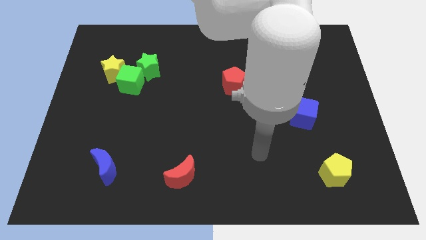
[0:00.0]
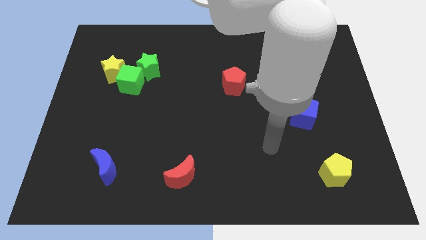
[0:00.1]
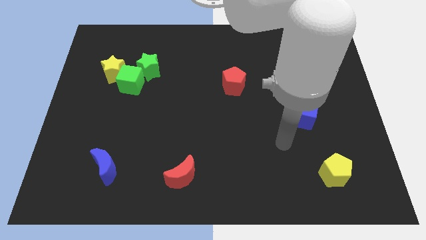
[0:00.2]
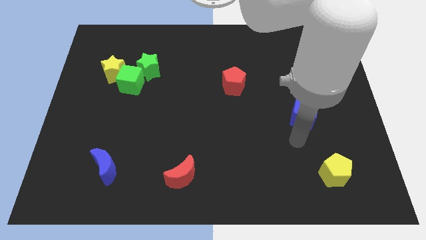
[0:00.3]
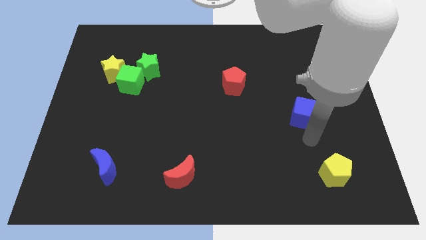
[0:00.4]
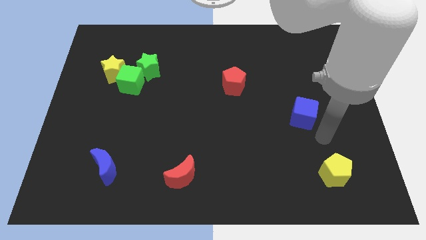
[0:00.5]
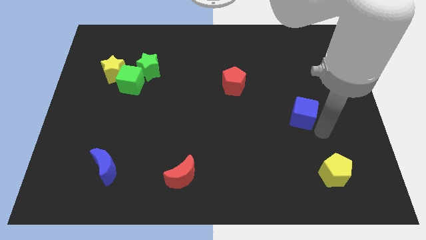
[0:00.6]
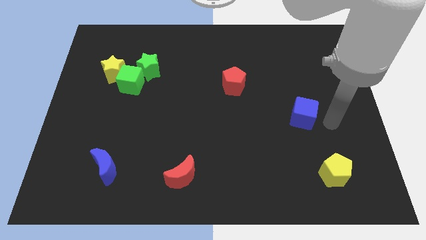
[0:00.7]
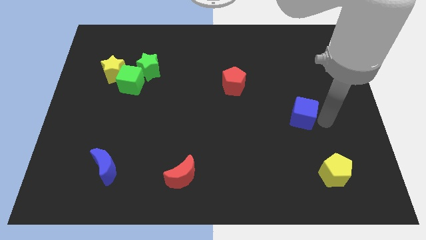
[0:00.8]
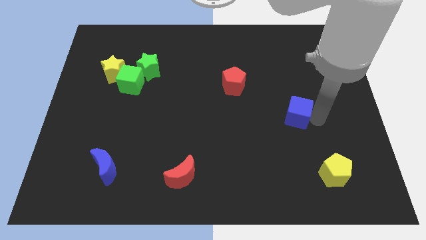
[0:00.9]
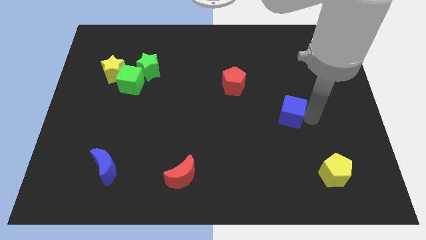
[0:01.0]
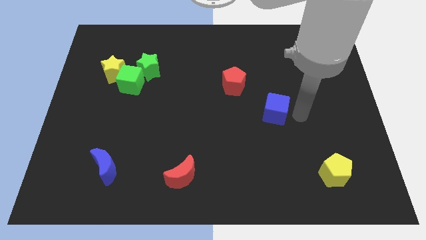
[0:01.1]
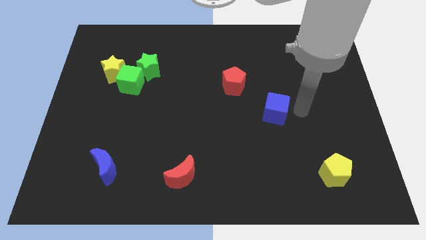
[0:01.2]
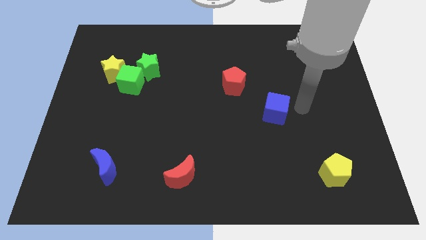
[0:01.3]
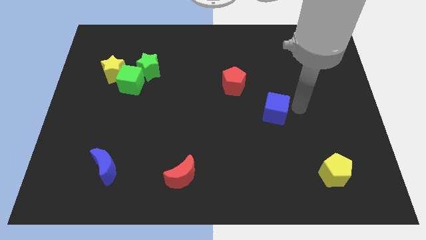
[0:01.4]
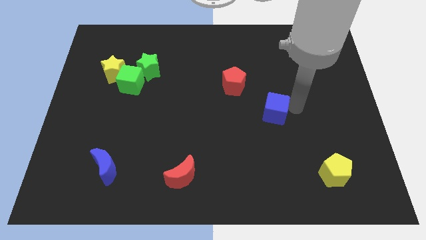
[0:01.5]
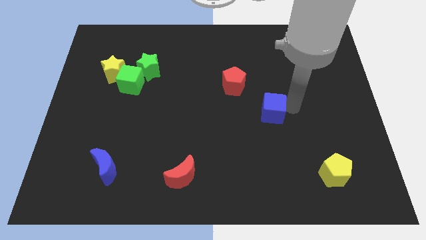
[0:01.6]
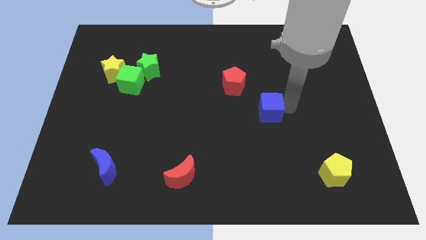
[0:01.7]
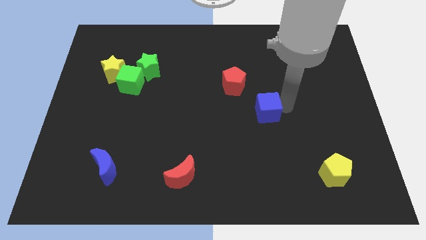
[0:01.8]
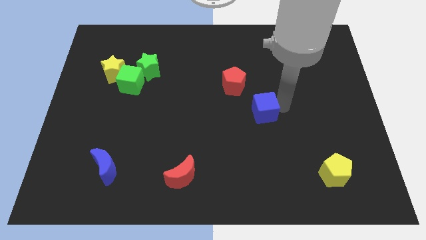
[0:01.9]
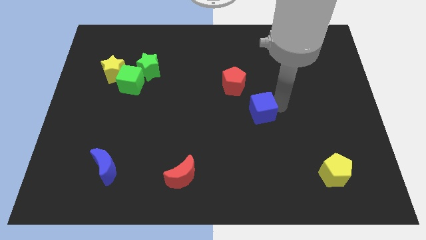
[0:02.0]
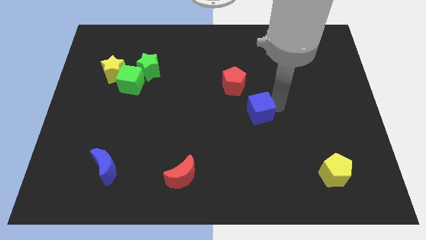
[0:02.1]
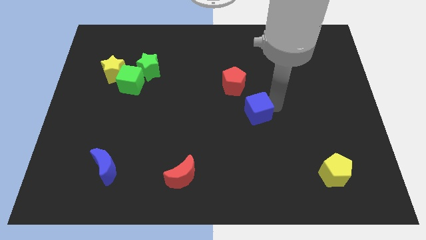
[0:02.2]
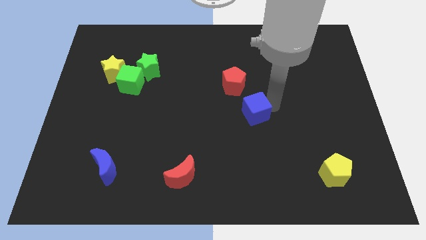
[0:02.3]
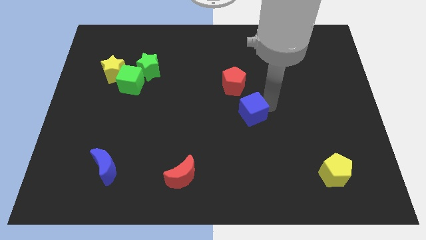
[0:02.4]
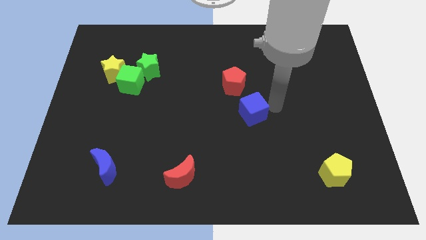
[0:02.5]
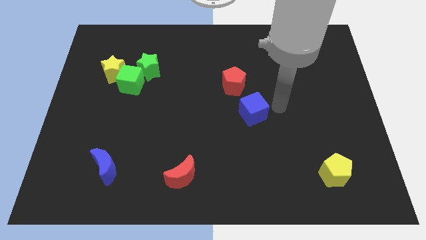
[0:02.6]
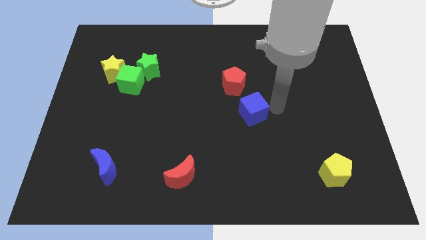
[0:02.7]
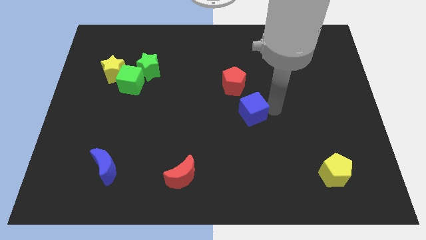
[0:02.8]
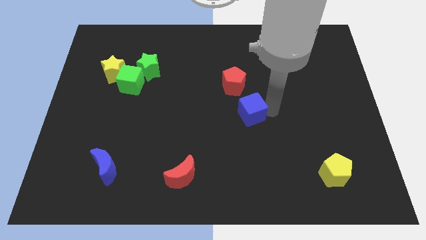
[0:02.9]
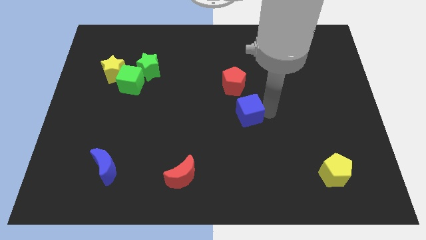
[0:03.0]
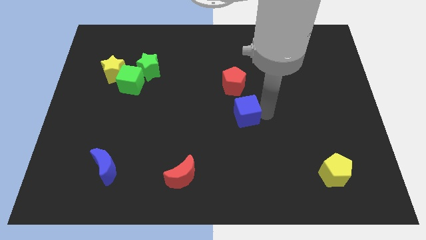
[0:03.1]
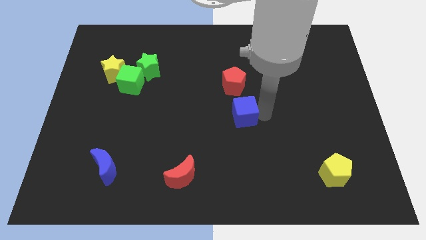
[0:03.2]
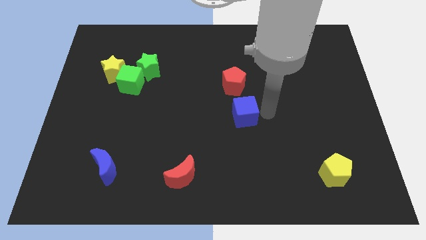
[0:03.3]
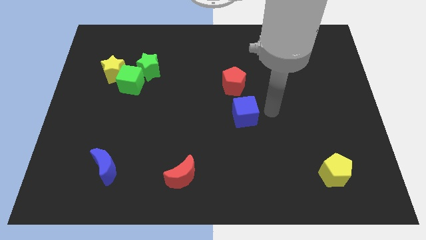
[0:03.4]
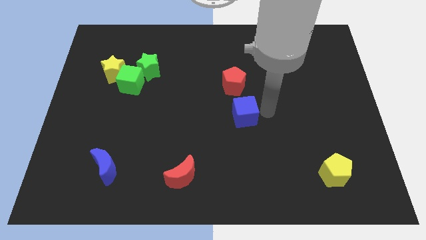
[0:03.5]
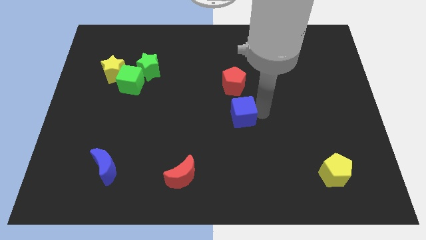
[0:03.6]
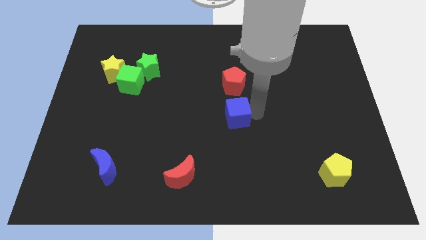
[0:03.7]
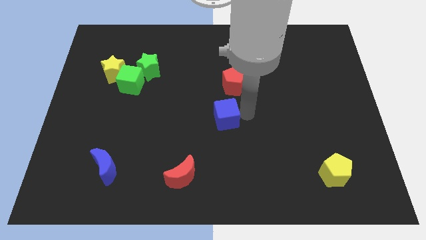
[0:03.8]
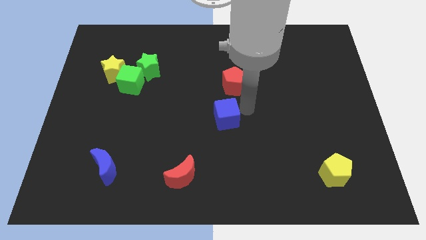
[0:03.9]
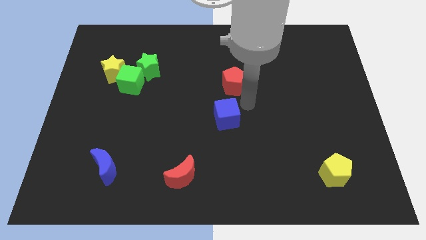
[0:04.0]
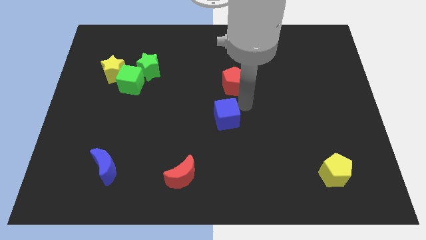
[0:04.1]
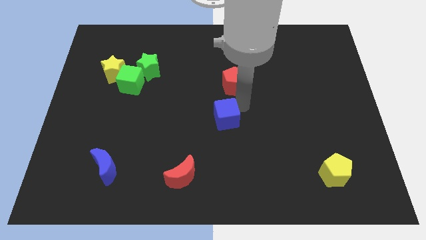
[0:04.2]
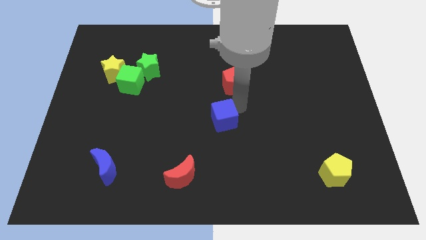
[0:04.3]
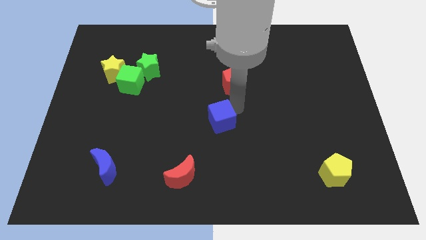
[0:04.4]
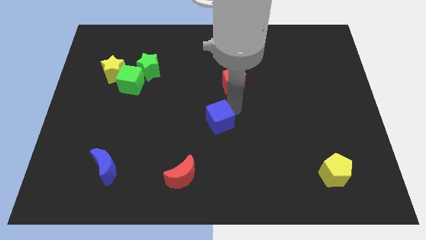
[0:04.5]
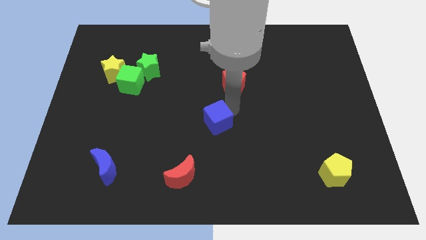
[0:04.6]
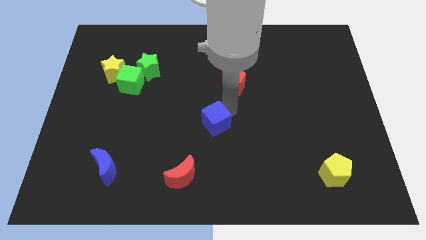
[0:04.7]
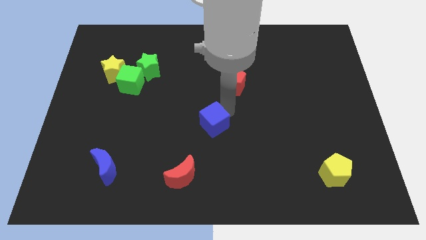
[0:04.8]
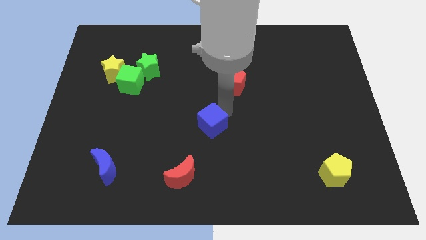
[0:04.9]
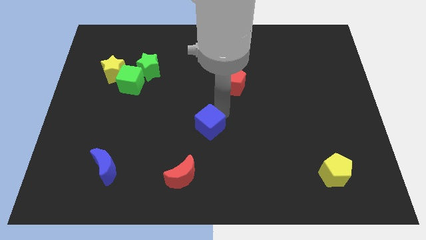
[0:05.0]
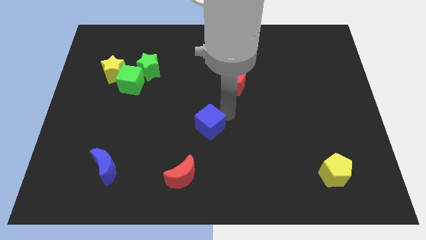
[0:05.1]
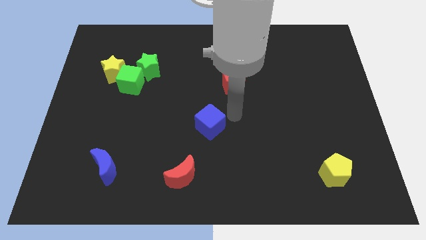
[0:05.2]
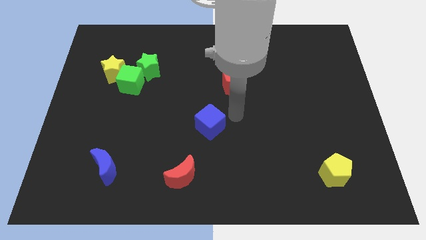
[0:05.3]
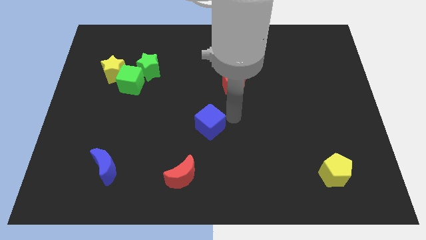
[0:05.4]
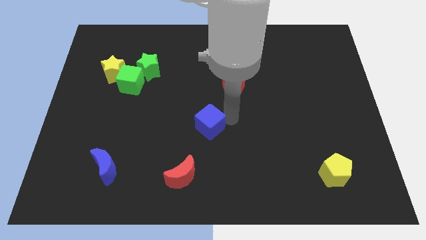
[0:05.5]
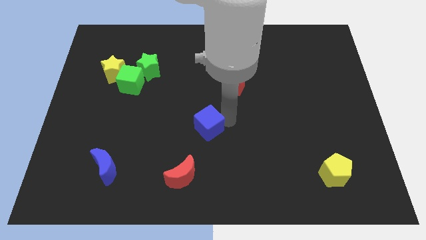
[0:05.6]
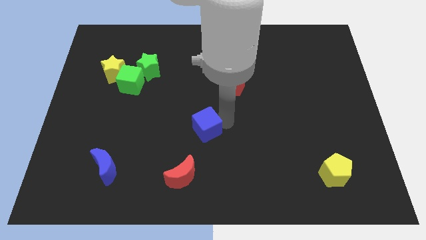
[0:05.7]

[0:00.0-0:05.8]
put the blue cube above the red moon

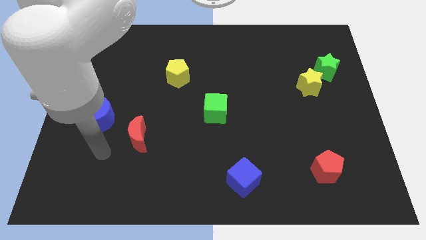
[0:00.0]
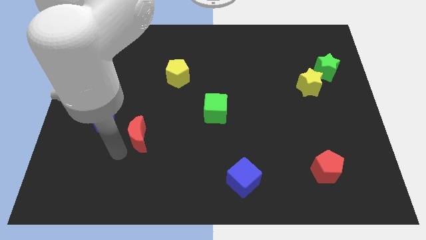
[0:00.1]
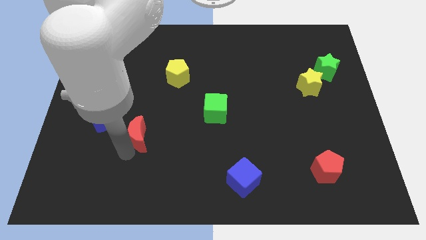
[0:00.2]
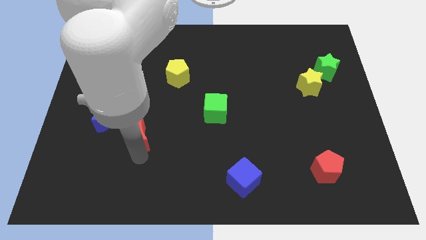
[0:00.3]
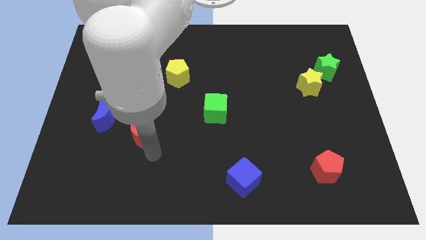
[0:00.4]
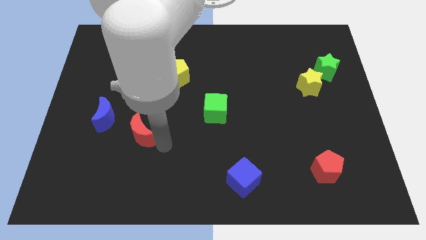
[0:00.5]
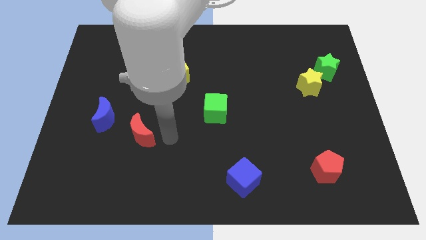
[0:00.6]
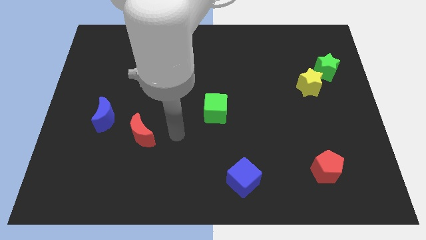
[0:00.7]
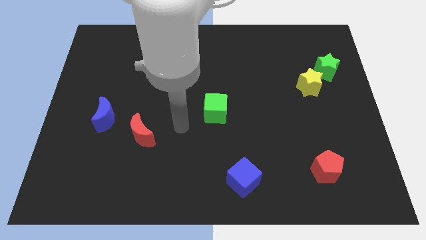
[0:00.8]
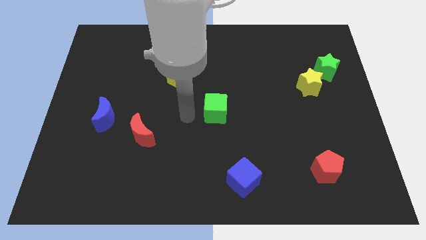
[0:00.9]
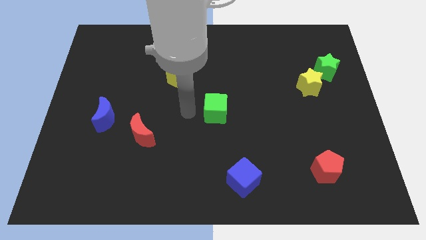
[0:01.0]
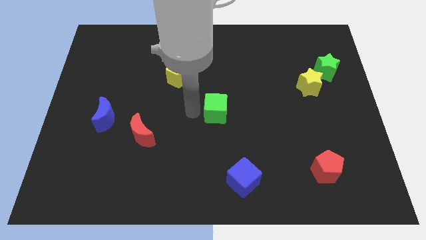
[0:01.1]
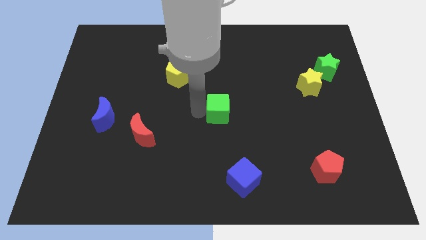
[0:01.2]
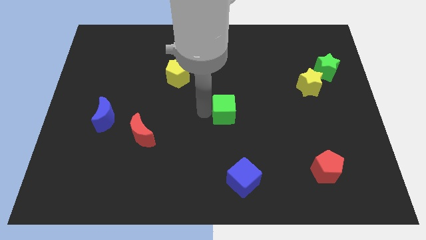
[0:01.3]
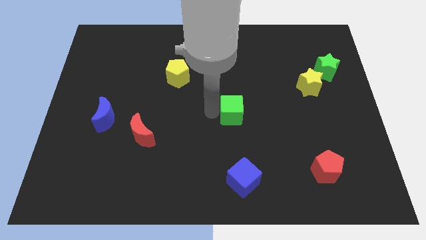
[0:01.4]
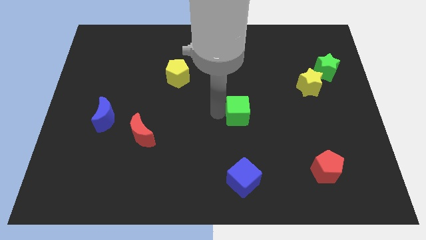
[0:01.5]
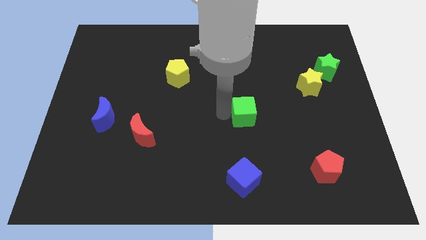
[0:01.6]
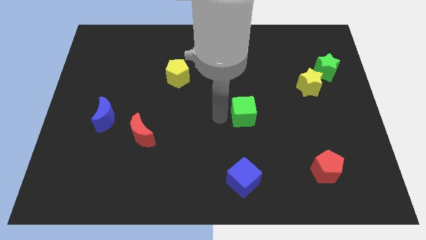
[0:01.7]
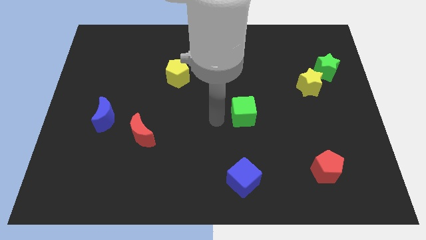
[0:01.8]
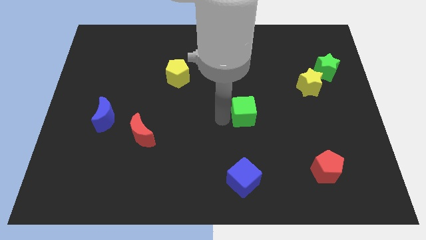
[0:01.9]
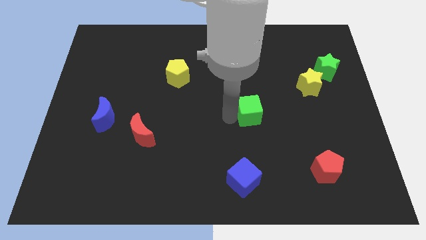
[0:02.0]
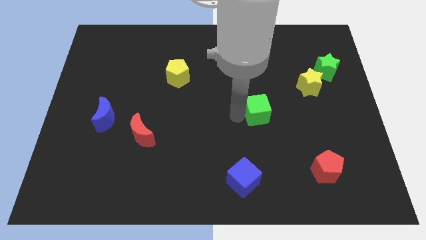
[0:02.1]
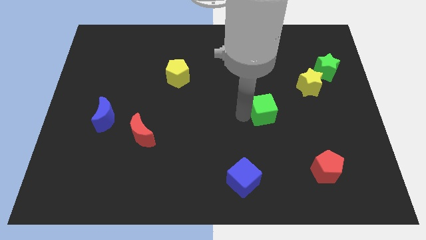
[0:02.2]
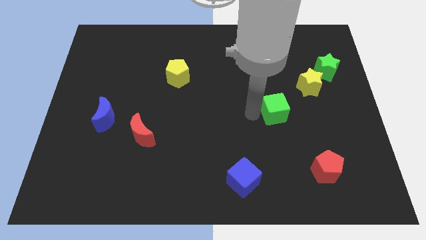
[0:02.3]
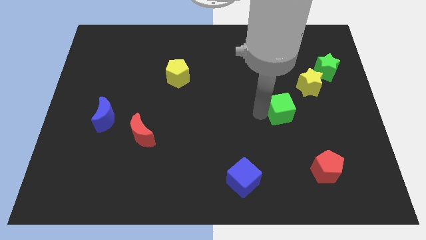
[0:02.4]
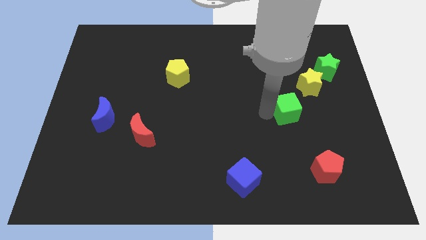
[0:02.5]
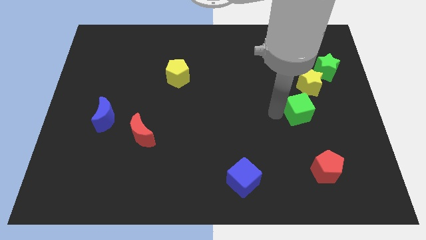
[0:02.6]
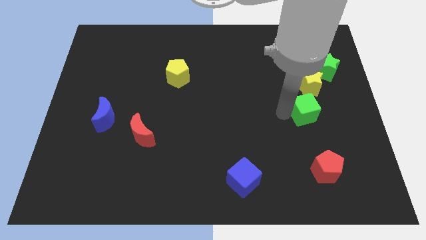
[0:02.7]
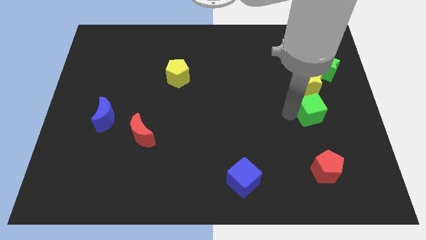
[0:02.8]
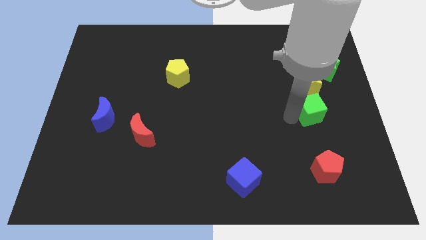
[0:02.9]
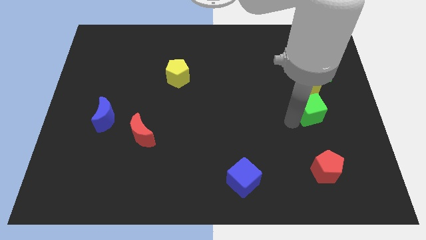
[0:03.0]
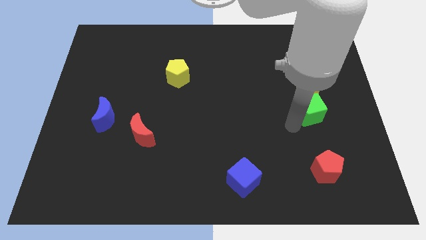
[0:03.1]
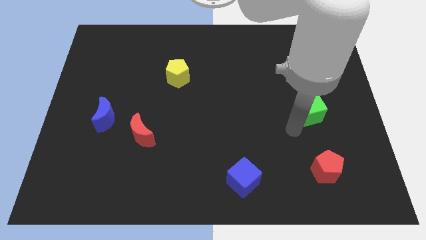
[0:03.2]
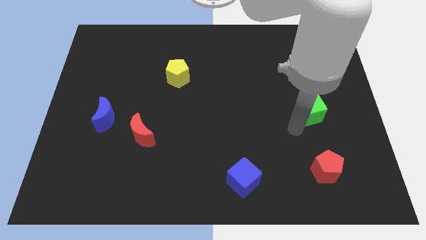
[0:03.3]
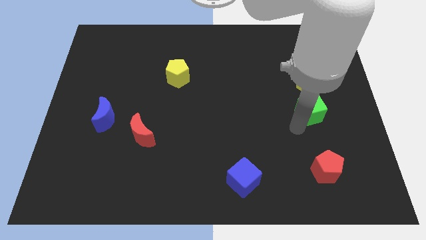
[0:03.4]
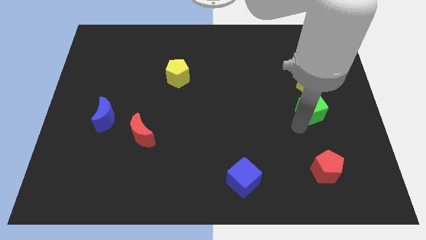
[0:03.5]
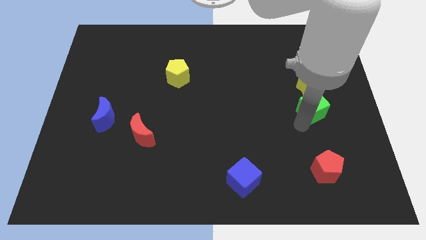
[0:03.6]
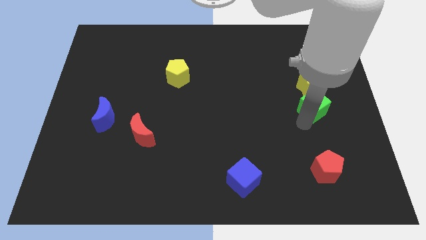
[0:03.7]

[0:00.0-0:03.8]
push the green cube to the bottom right side of the yellow star
